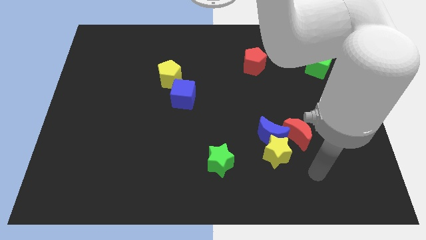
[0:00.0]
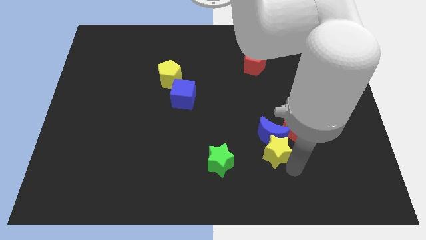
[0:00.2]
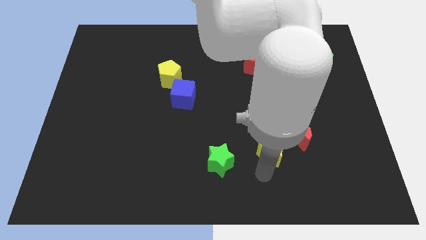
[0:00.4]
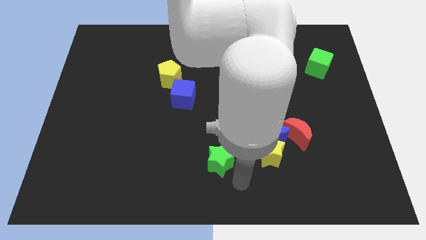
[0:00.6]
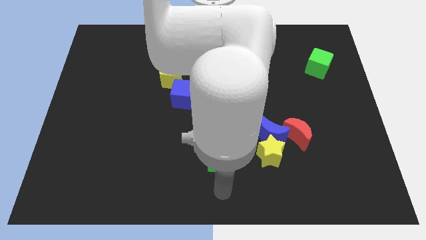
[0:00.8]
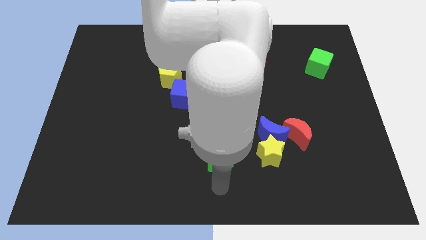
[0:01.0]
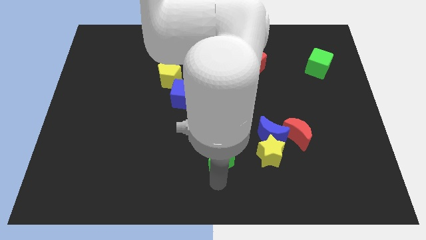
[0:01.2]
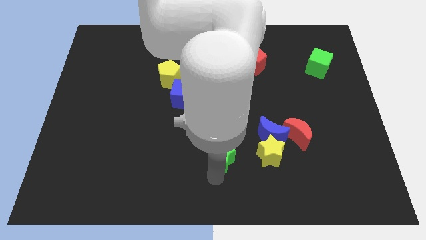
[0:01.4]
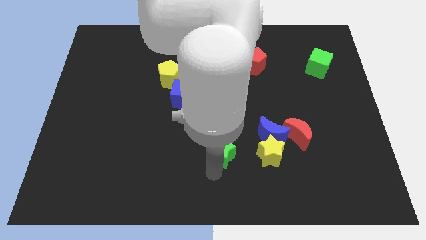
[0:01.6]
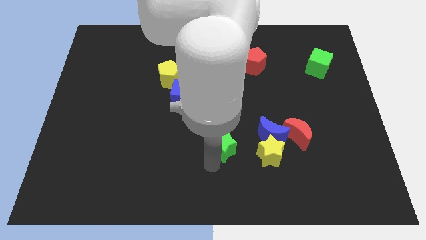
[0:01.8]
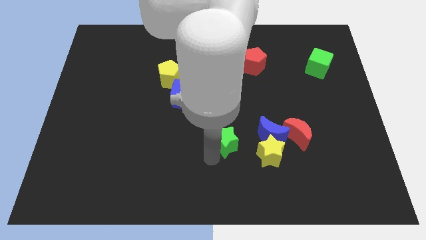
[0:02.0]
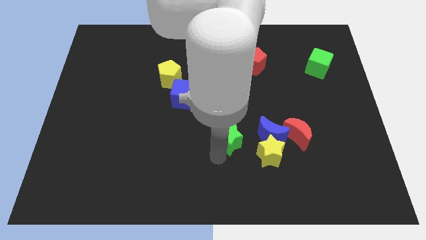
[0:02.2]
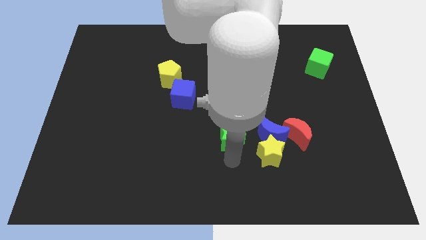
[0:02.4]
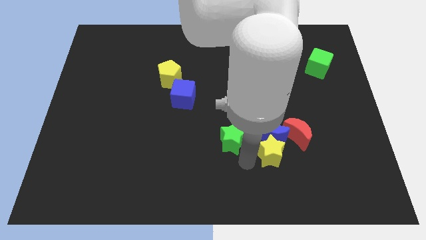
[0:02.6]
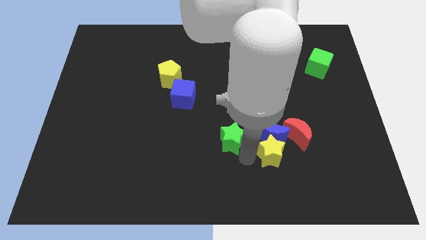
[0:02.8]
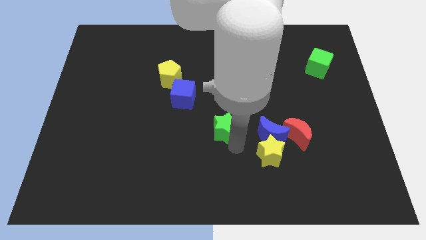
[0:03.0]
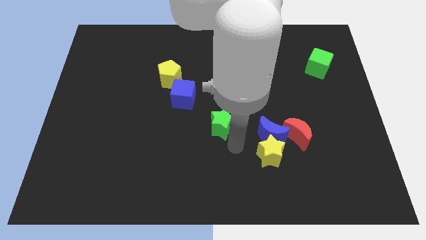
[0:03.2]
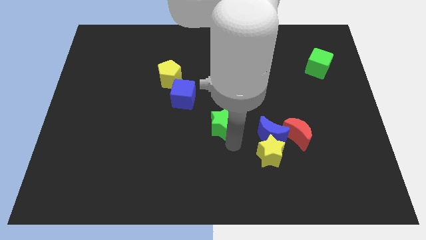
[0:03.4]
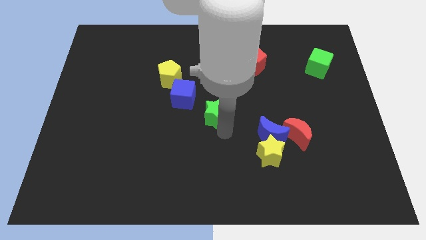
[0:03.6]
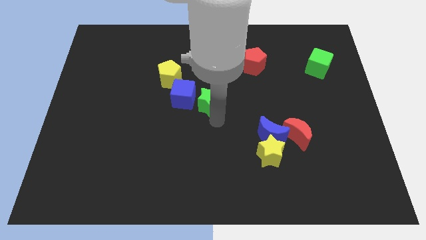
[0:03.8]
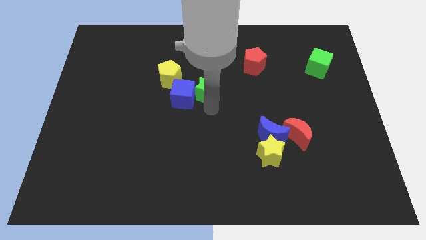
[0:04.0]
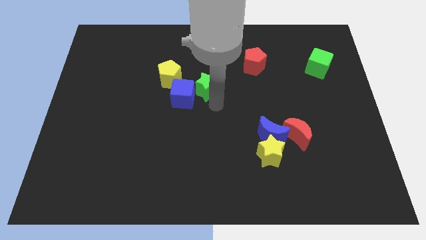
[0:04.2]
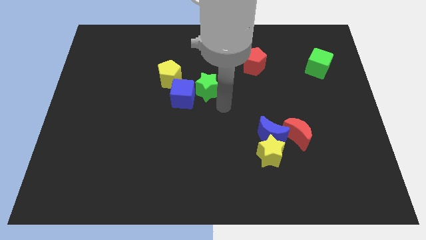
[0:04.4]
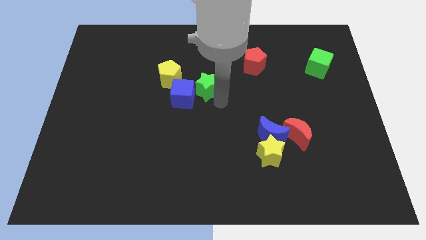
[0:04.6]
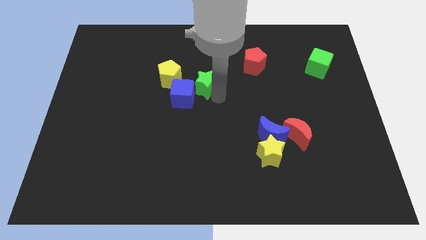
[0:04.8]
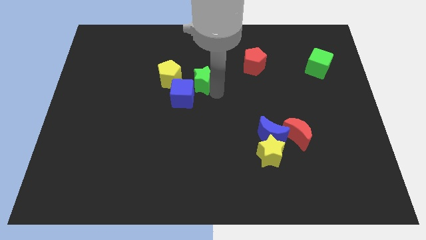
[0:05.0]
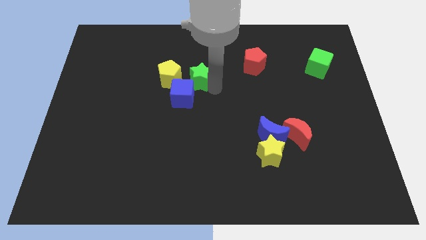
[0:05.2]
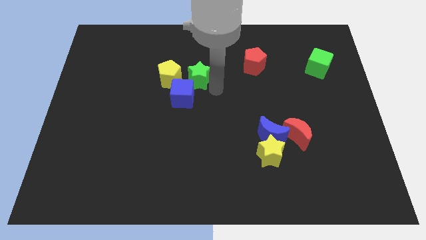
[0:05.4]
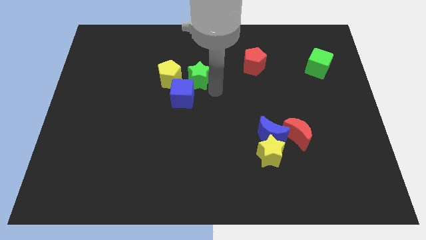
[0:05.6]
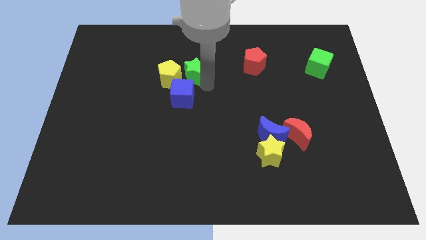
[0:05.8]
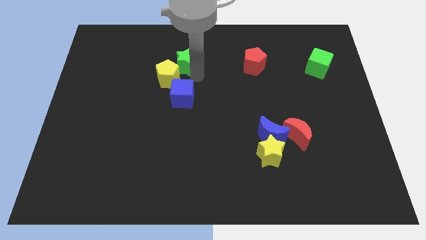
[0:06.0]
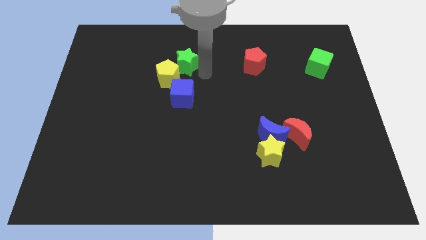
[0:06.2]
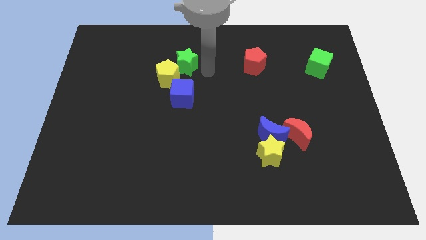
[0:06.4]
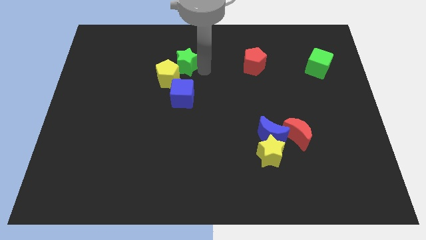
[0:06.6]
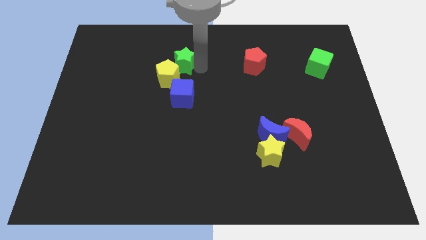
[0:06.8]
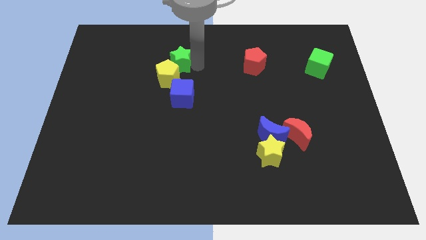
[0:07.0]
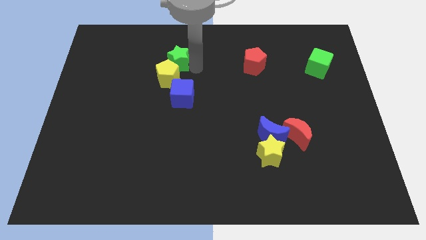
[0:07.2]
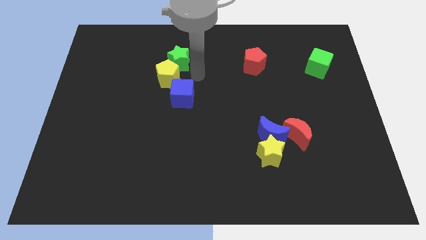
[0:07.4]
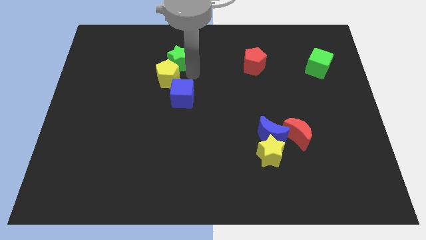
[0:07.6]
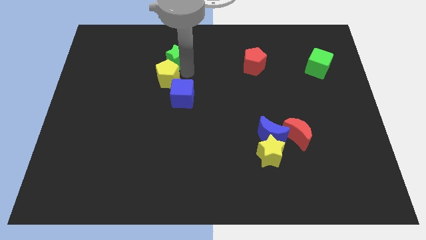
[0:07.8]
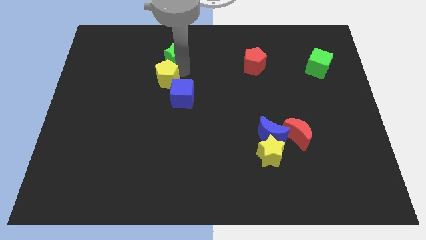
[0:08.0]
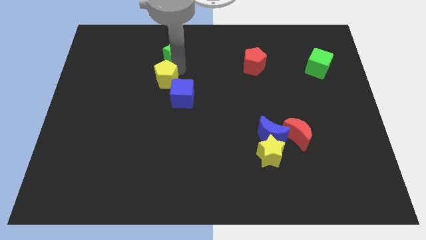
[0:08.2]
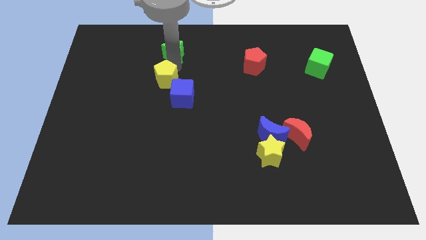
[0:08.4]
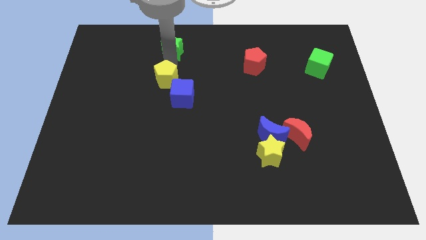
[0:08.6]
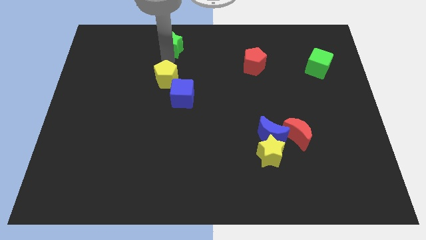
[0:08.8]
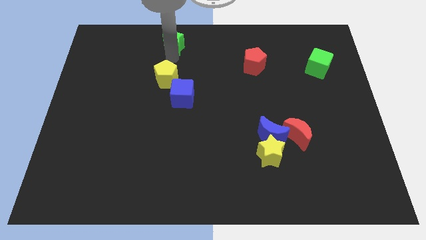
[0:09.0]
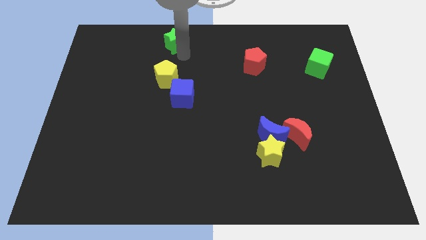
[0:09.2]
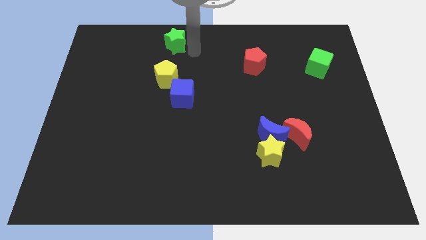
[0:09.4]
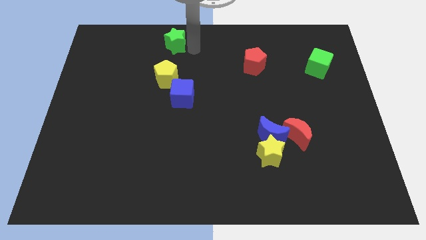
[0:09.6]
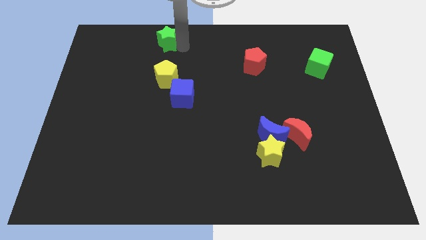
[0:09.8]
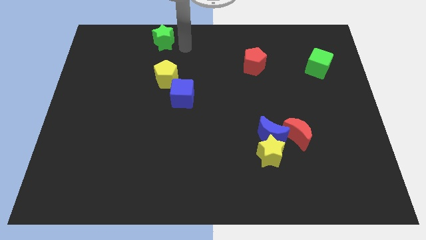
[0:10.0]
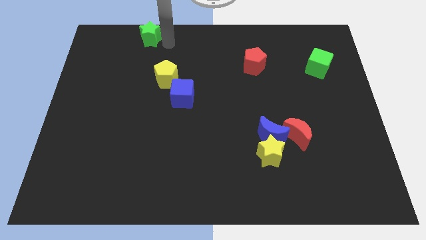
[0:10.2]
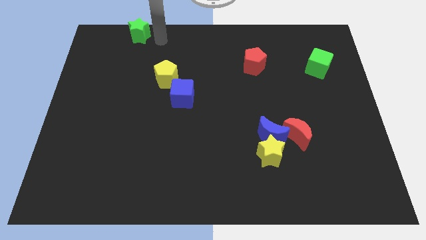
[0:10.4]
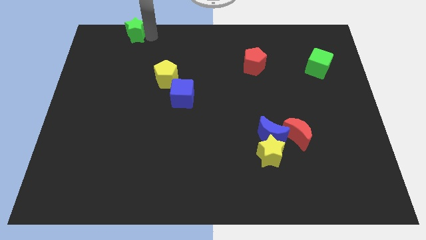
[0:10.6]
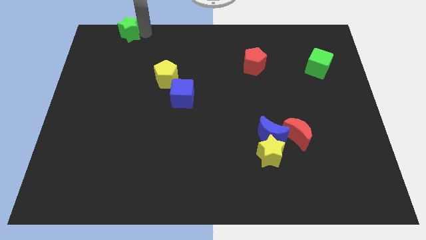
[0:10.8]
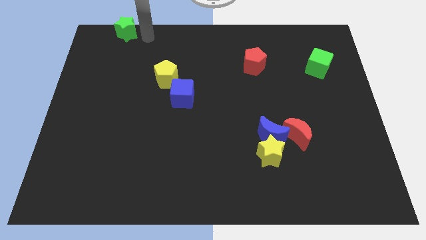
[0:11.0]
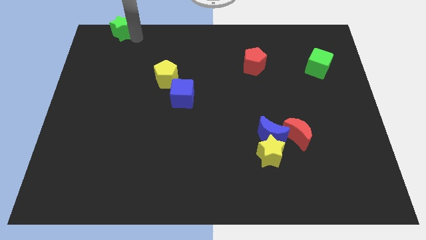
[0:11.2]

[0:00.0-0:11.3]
push the green star to the top left corner
